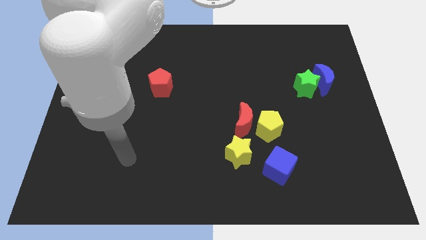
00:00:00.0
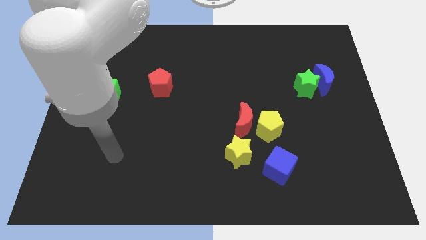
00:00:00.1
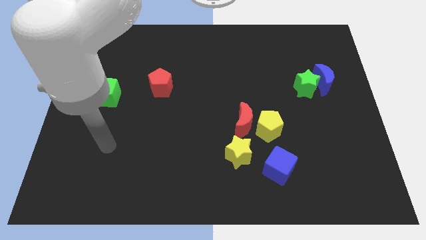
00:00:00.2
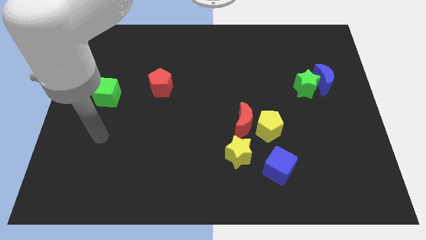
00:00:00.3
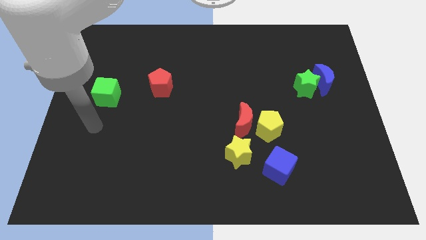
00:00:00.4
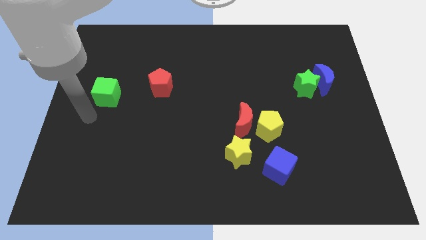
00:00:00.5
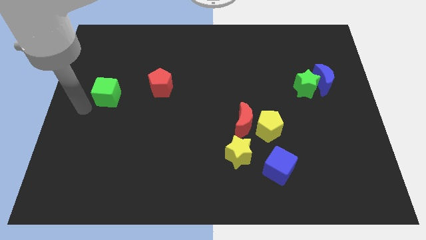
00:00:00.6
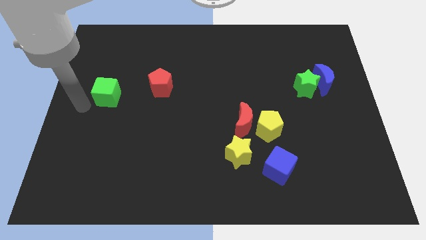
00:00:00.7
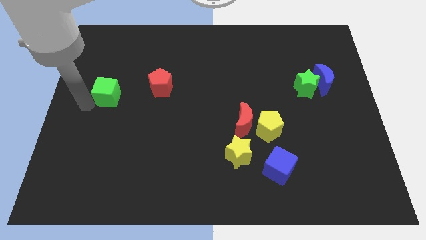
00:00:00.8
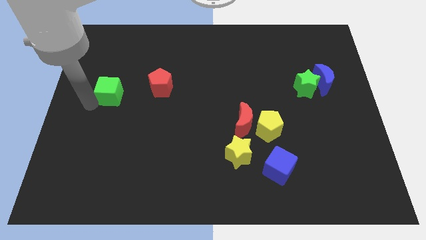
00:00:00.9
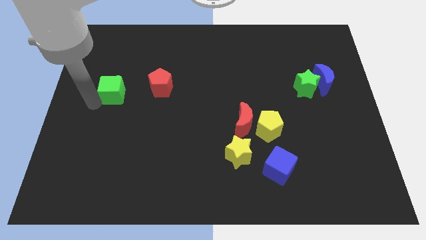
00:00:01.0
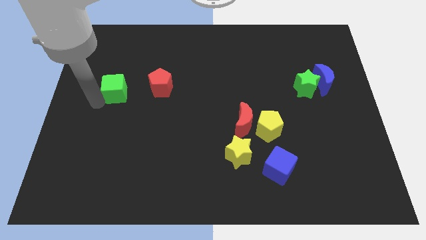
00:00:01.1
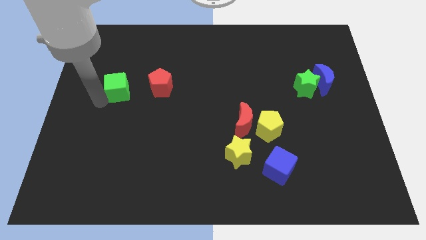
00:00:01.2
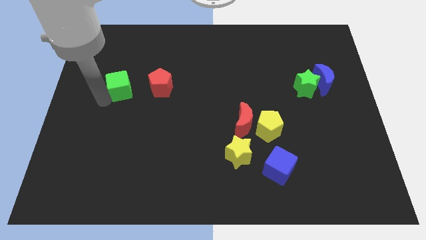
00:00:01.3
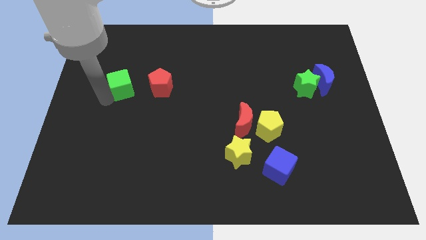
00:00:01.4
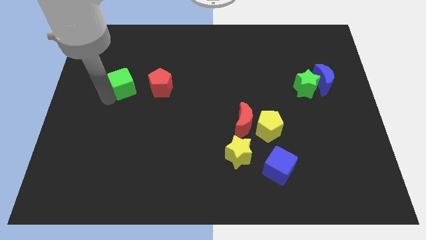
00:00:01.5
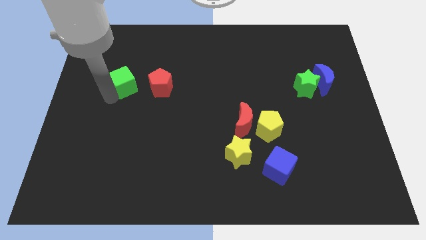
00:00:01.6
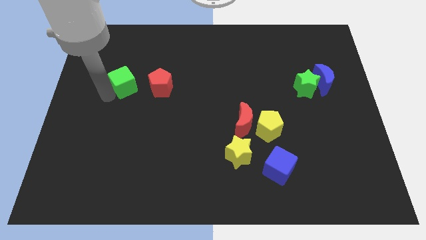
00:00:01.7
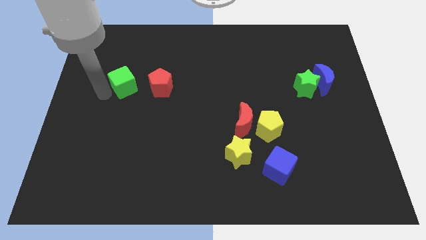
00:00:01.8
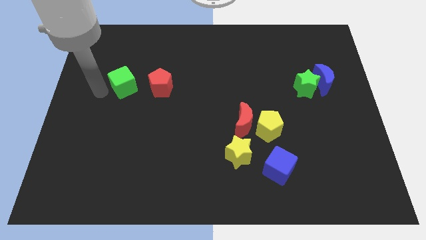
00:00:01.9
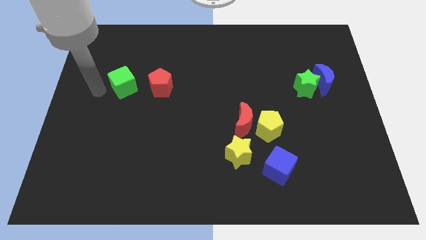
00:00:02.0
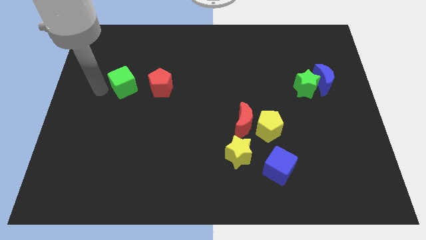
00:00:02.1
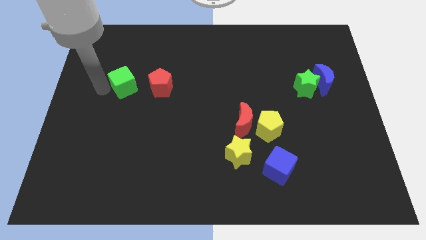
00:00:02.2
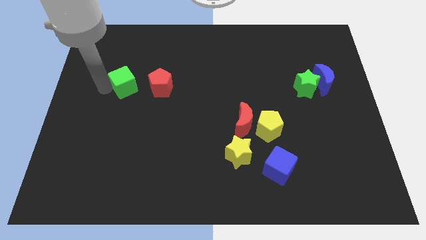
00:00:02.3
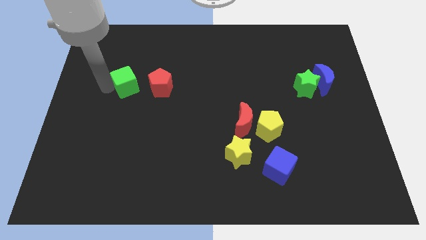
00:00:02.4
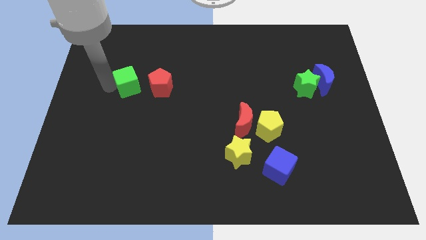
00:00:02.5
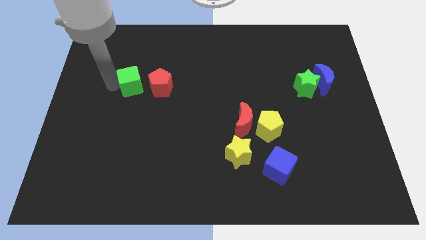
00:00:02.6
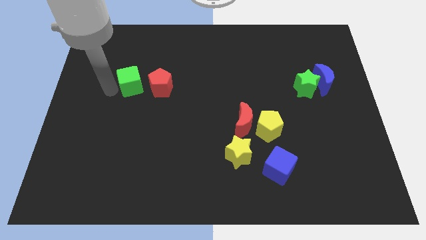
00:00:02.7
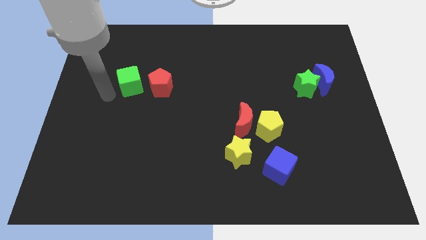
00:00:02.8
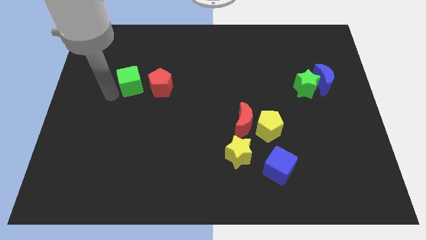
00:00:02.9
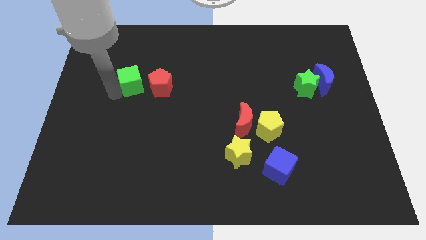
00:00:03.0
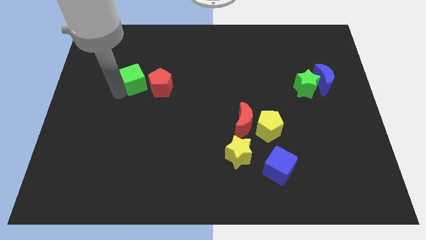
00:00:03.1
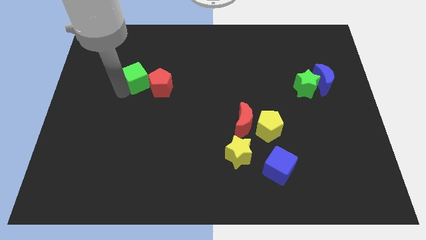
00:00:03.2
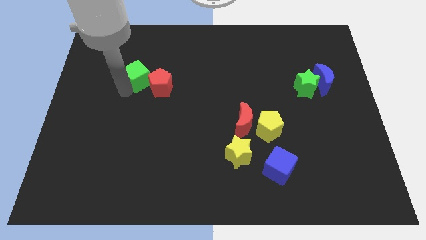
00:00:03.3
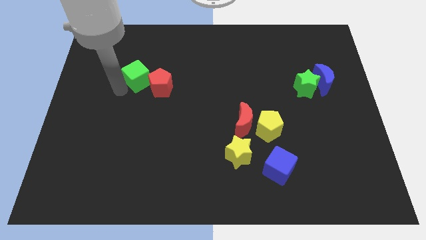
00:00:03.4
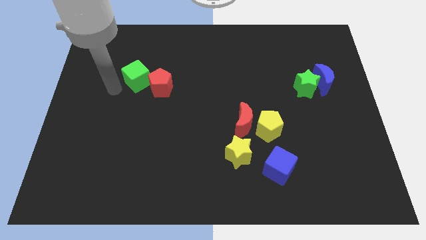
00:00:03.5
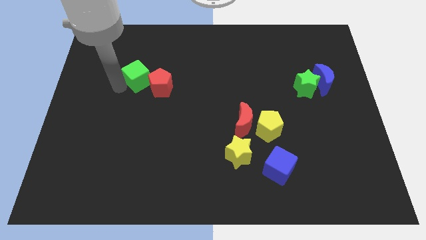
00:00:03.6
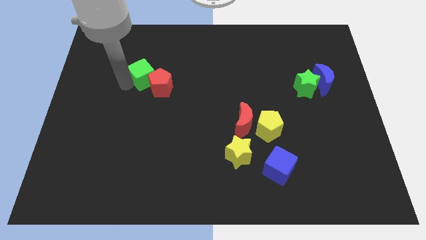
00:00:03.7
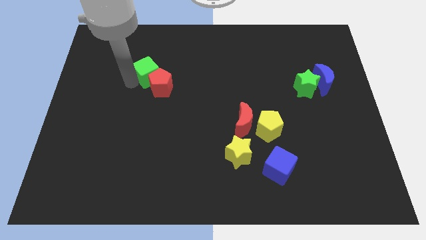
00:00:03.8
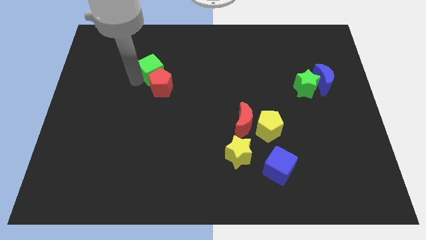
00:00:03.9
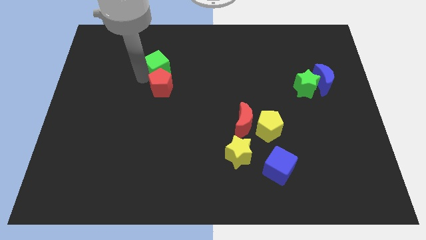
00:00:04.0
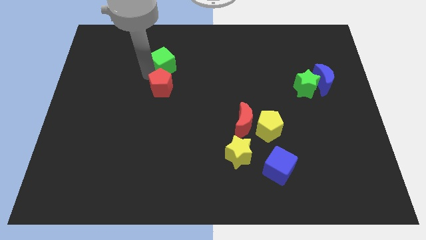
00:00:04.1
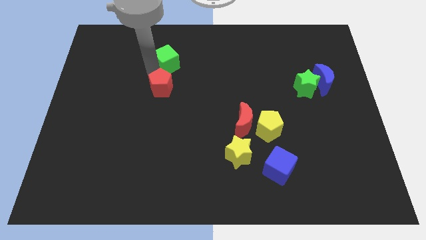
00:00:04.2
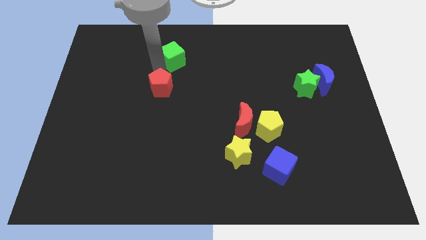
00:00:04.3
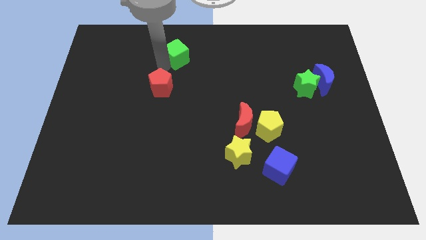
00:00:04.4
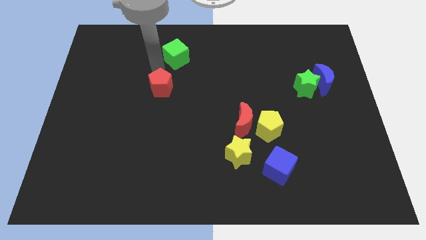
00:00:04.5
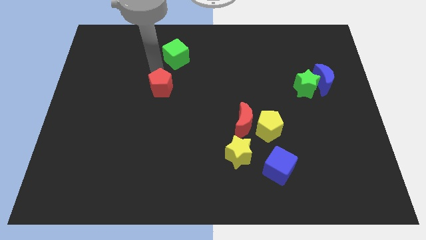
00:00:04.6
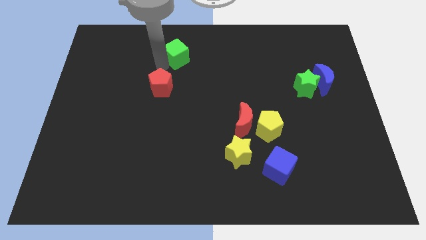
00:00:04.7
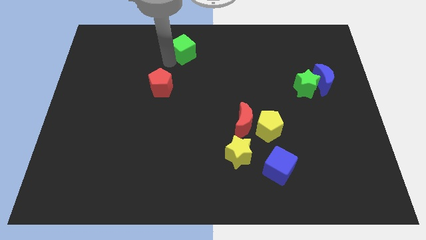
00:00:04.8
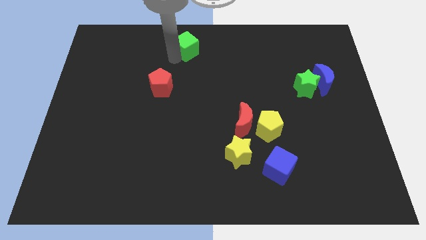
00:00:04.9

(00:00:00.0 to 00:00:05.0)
push the green cube to the top

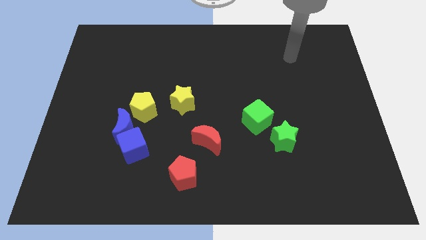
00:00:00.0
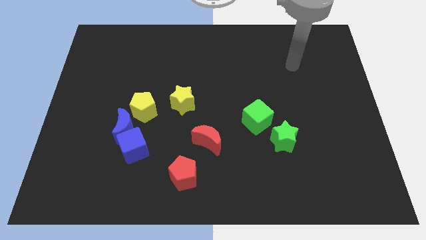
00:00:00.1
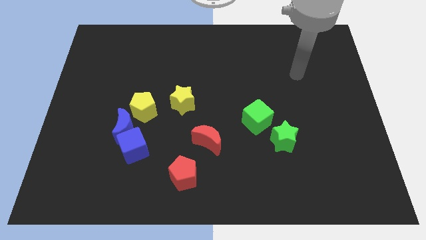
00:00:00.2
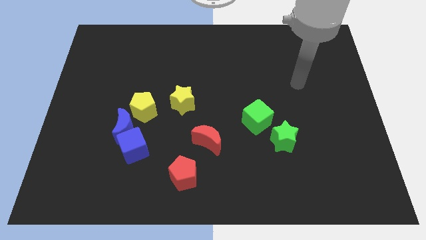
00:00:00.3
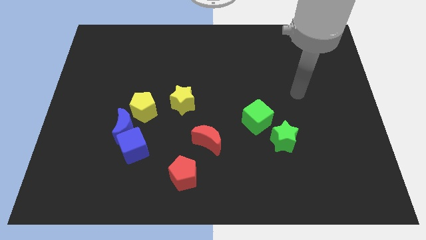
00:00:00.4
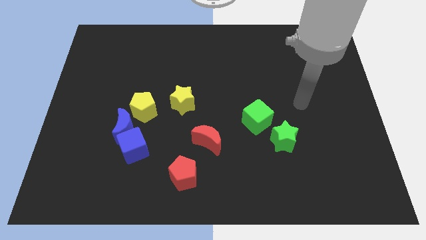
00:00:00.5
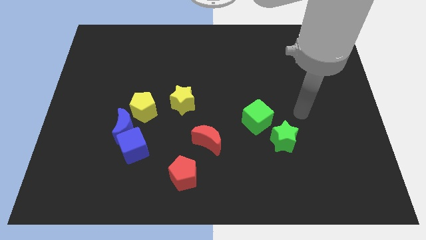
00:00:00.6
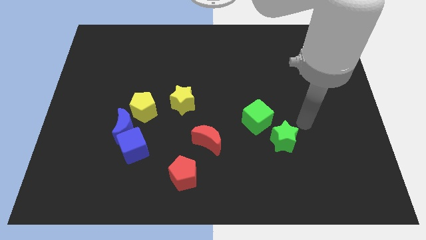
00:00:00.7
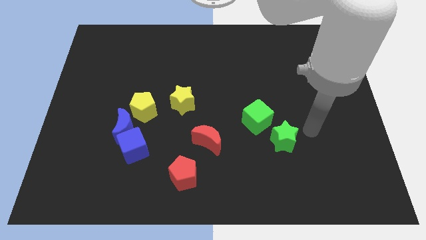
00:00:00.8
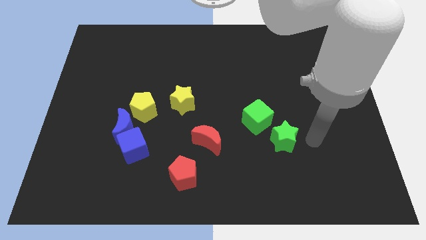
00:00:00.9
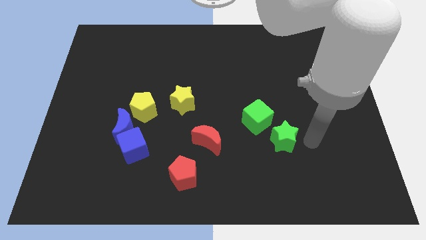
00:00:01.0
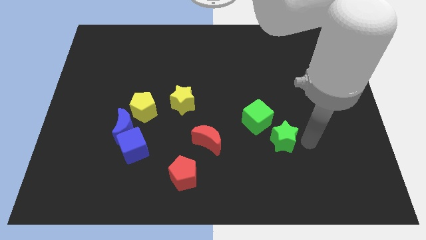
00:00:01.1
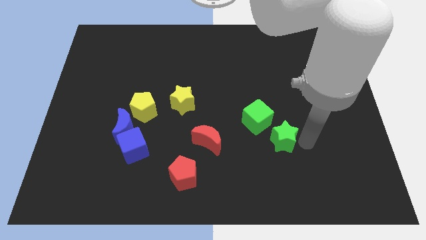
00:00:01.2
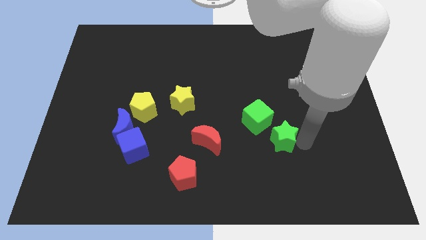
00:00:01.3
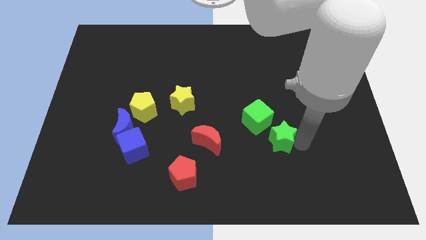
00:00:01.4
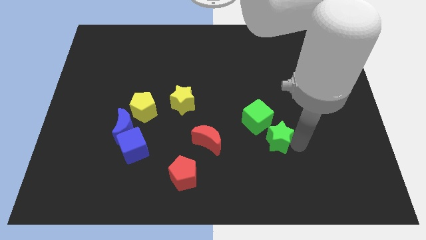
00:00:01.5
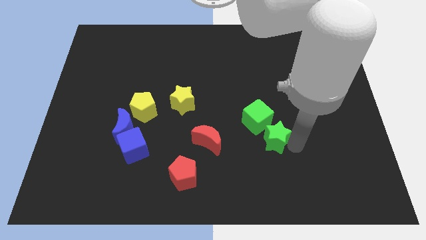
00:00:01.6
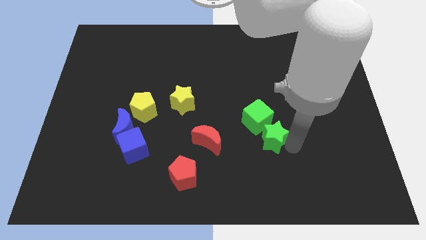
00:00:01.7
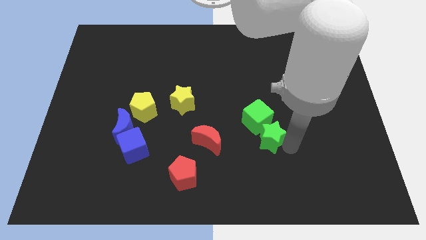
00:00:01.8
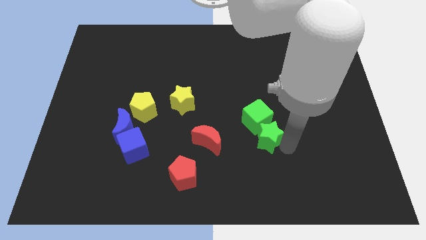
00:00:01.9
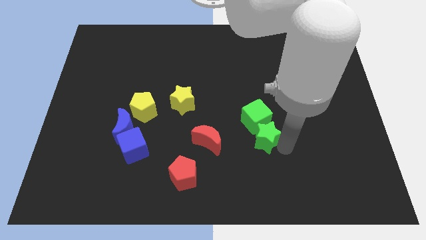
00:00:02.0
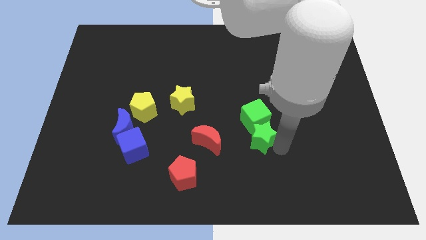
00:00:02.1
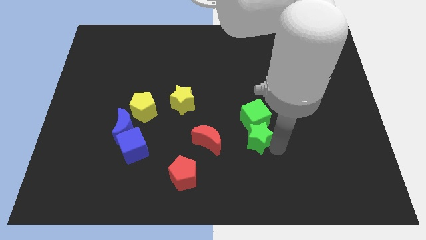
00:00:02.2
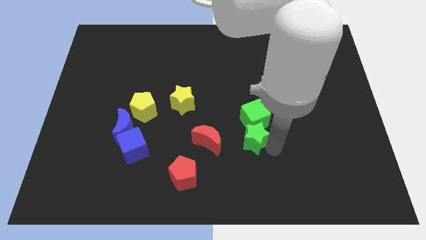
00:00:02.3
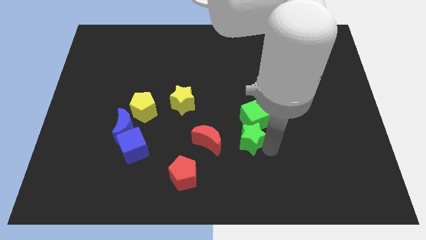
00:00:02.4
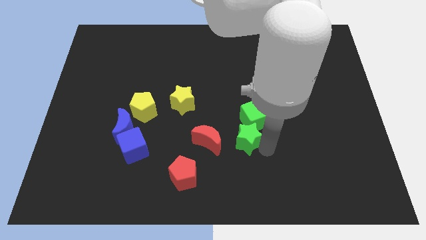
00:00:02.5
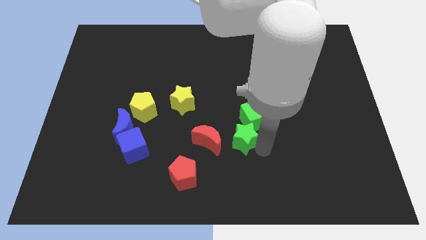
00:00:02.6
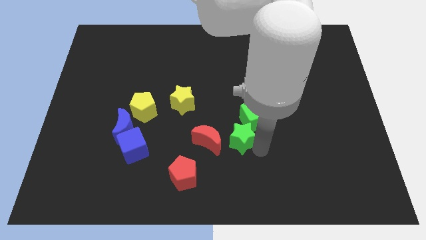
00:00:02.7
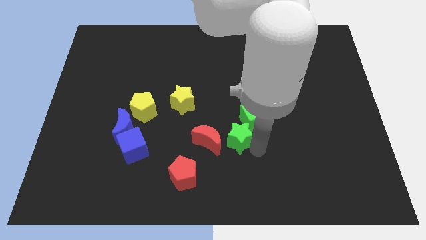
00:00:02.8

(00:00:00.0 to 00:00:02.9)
slide the green star to the middle of the board
